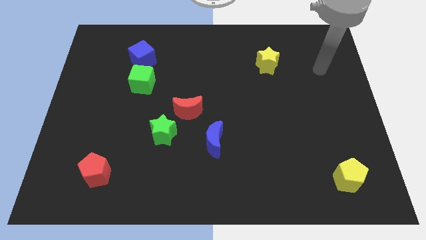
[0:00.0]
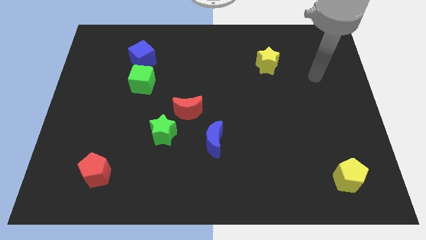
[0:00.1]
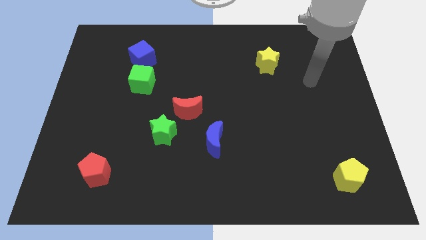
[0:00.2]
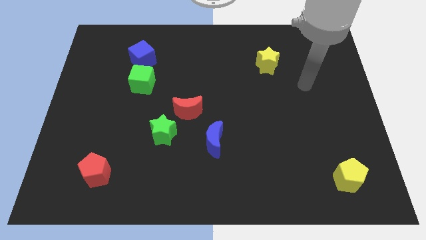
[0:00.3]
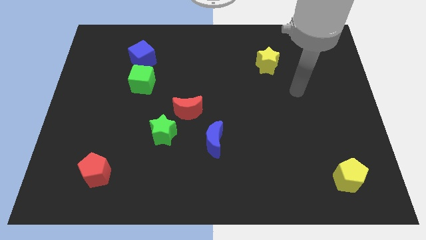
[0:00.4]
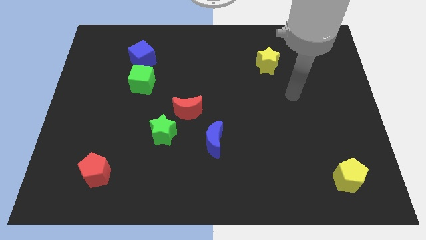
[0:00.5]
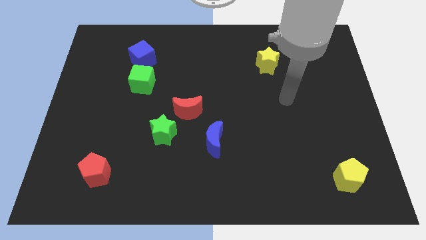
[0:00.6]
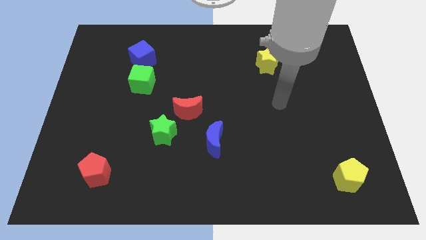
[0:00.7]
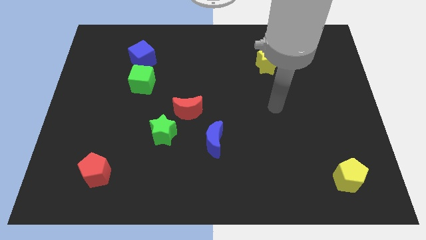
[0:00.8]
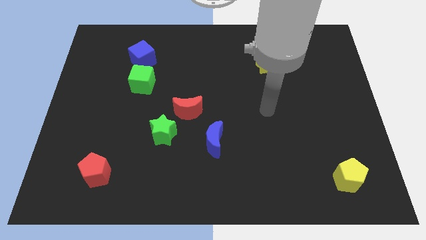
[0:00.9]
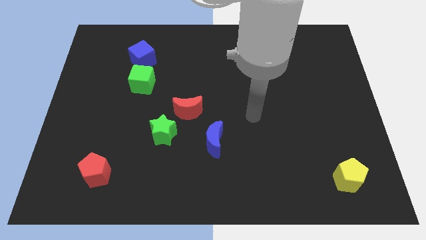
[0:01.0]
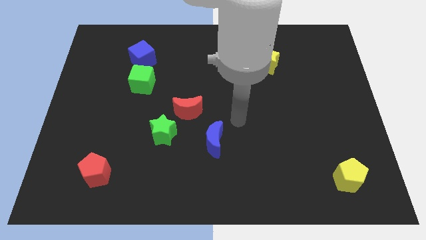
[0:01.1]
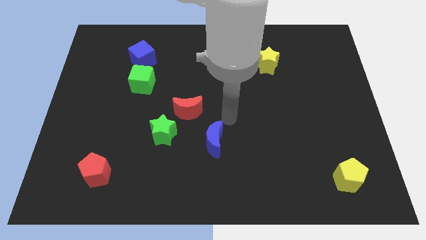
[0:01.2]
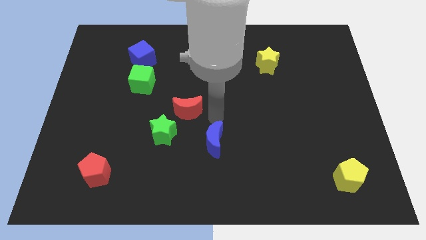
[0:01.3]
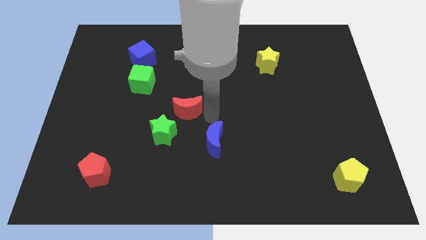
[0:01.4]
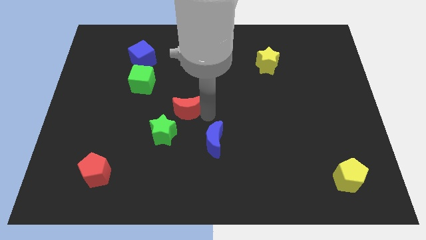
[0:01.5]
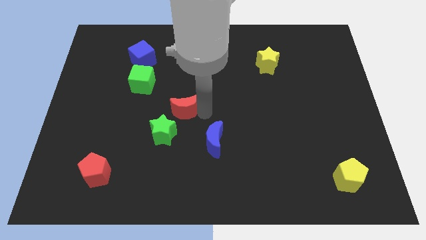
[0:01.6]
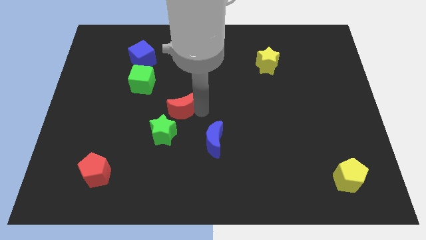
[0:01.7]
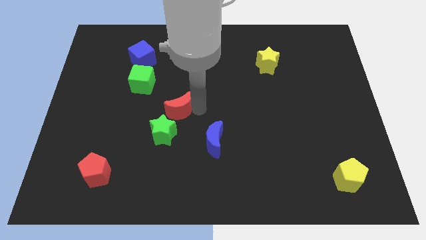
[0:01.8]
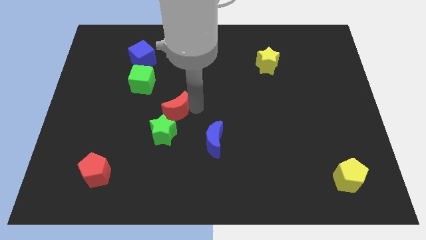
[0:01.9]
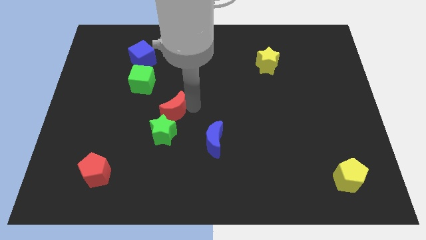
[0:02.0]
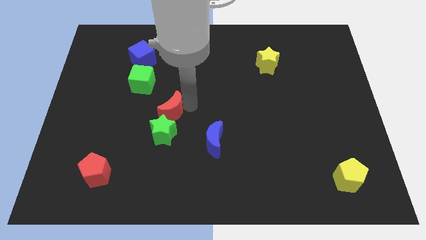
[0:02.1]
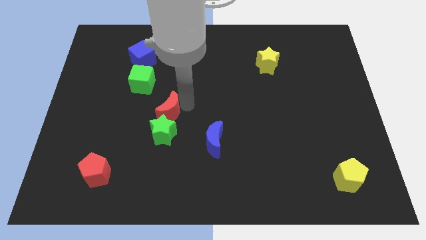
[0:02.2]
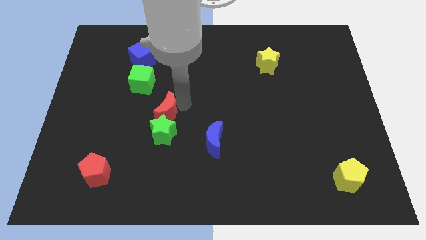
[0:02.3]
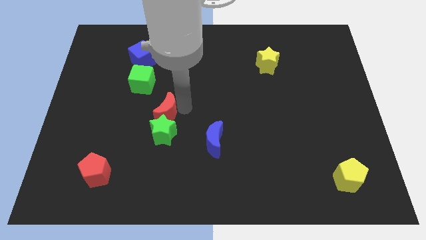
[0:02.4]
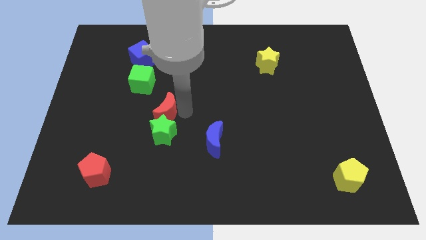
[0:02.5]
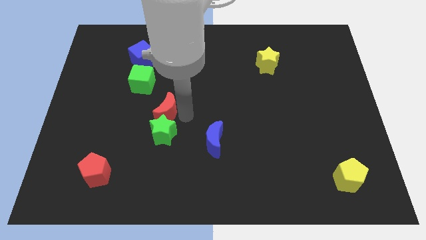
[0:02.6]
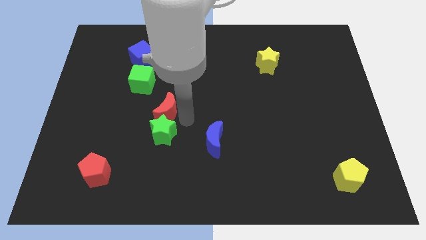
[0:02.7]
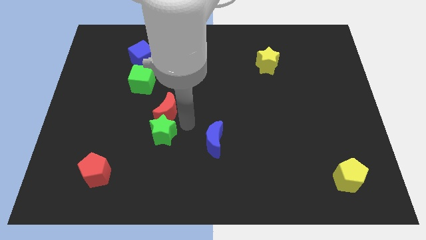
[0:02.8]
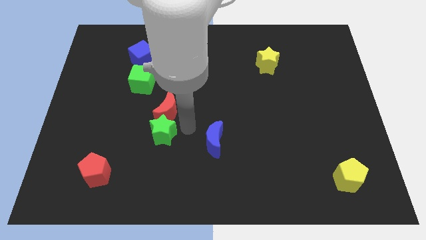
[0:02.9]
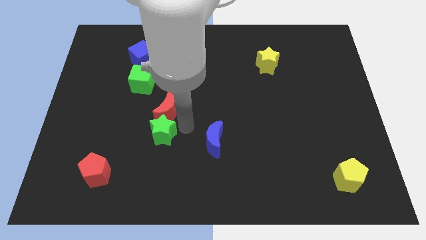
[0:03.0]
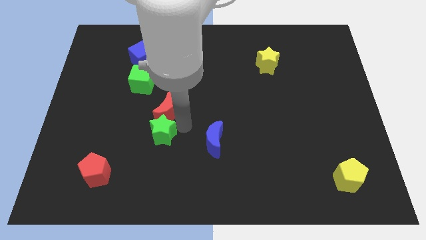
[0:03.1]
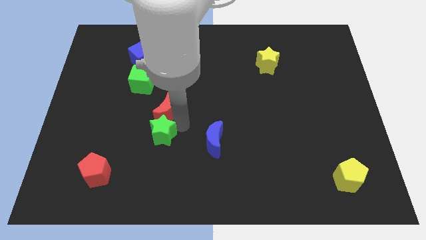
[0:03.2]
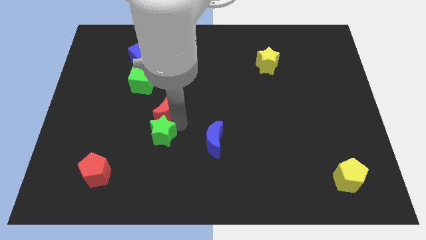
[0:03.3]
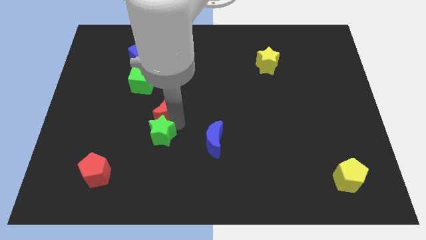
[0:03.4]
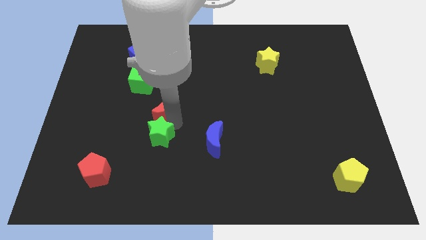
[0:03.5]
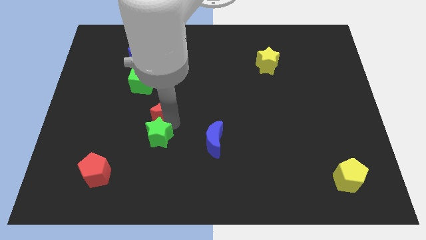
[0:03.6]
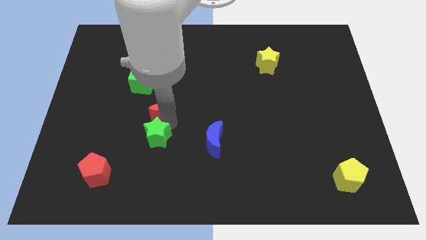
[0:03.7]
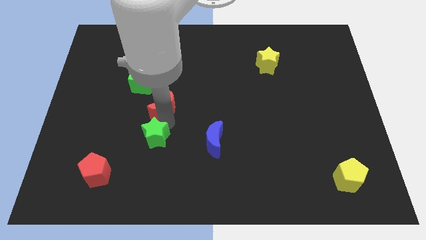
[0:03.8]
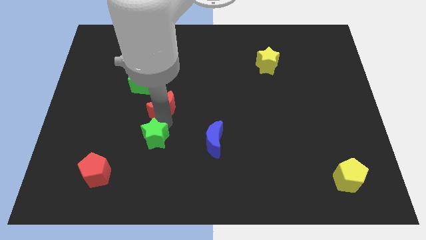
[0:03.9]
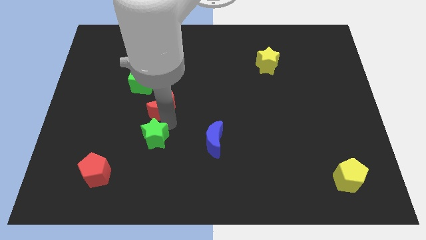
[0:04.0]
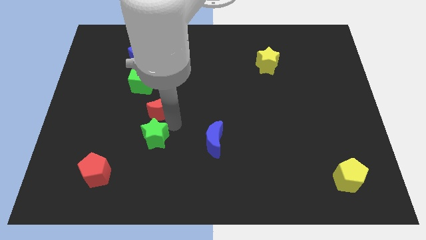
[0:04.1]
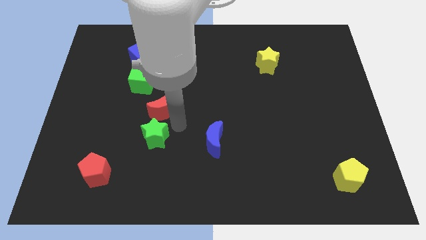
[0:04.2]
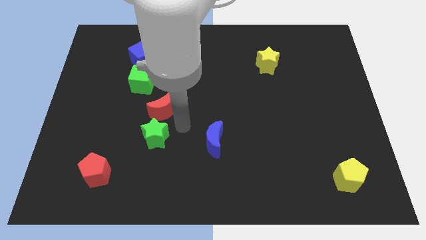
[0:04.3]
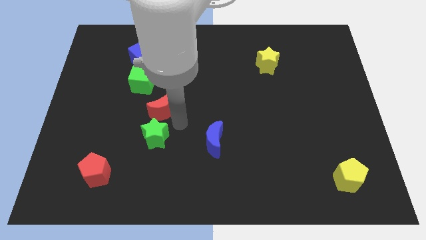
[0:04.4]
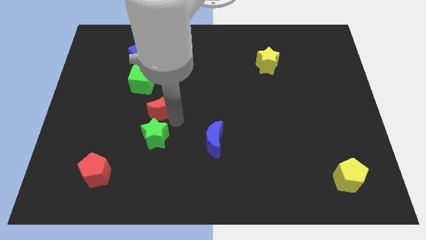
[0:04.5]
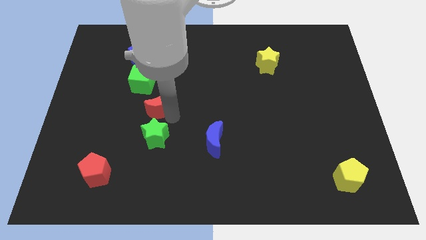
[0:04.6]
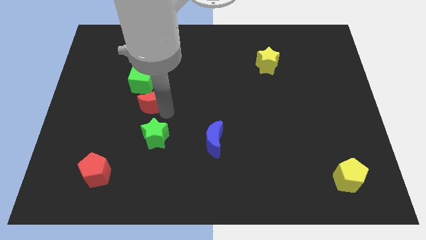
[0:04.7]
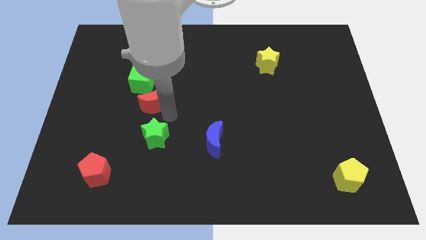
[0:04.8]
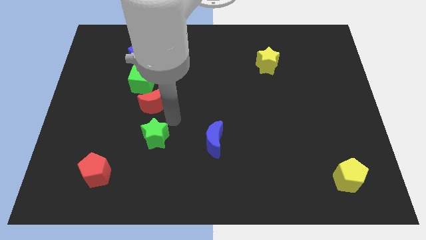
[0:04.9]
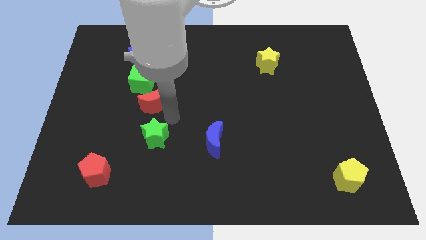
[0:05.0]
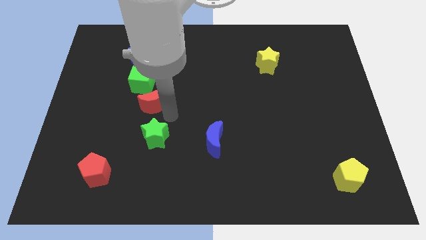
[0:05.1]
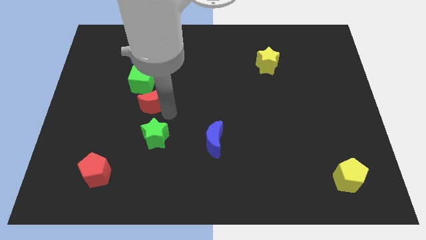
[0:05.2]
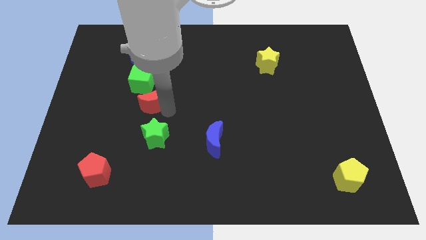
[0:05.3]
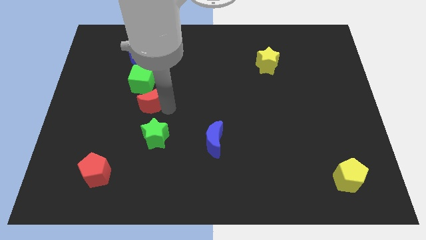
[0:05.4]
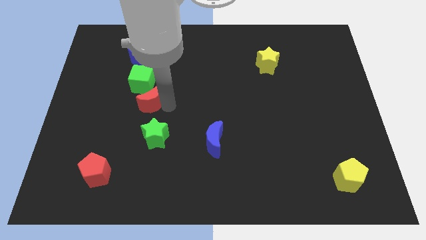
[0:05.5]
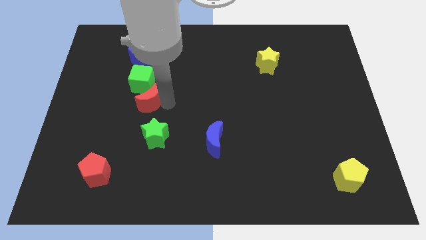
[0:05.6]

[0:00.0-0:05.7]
push the red moon to the bottom of the blue cube

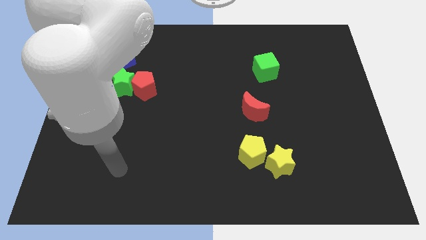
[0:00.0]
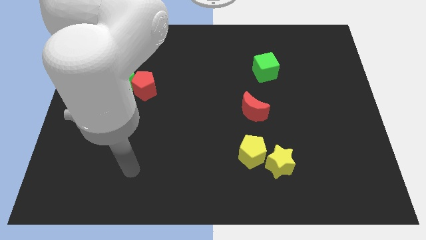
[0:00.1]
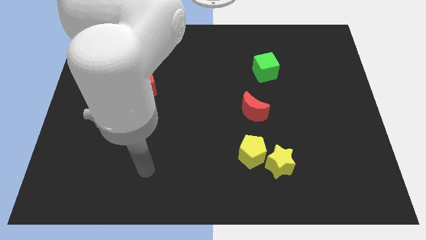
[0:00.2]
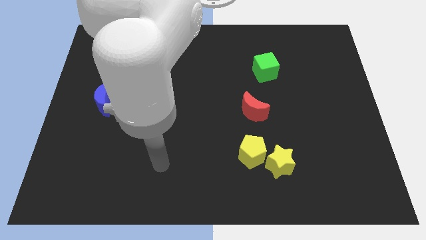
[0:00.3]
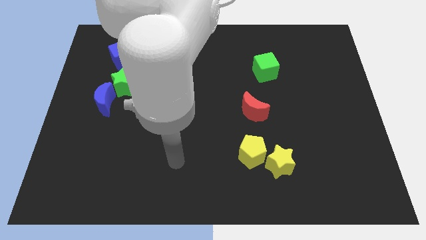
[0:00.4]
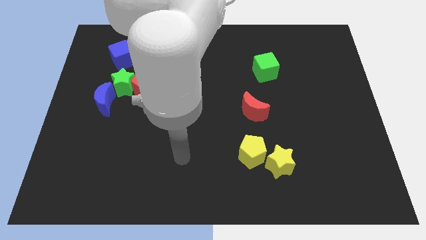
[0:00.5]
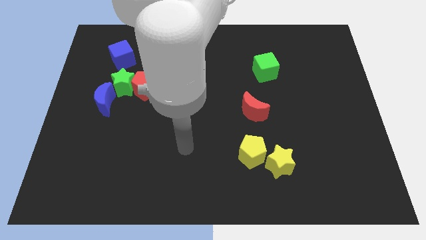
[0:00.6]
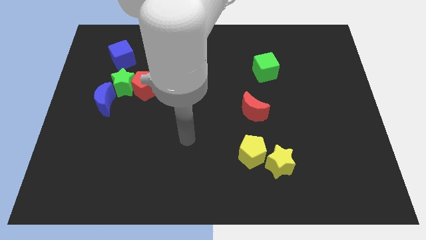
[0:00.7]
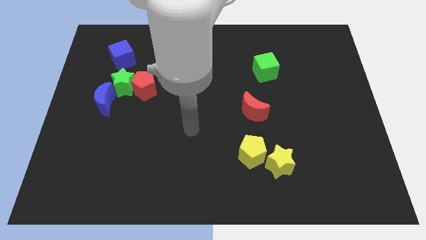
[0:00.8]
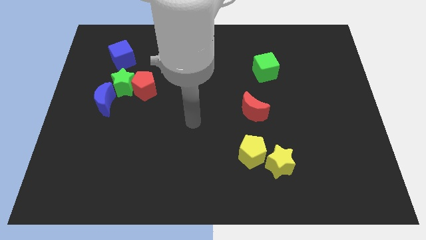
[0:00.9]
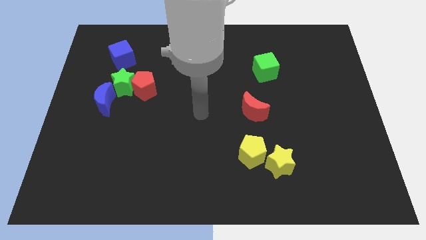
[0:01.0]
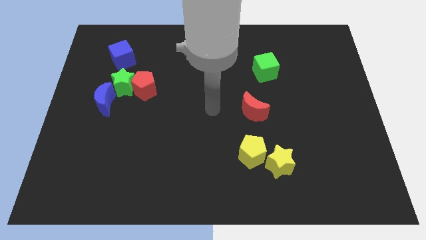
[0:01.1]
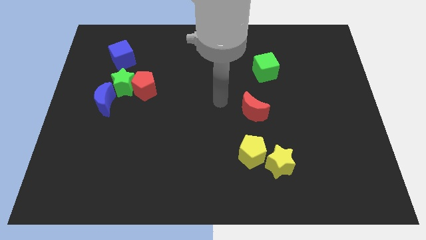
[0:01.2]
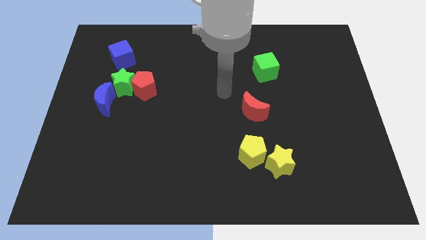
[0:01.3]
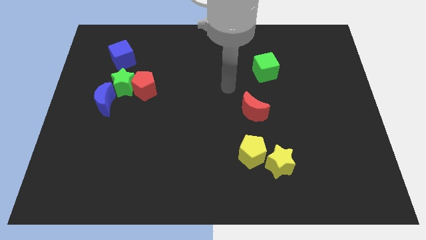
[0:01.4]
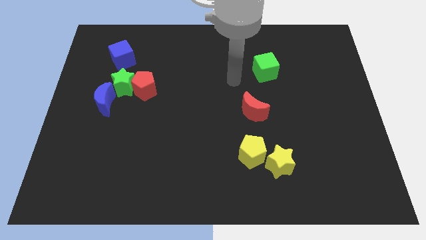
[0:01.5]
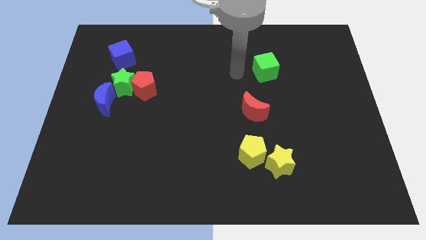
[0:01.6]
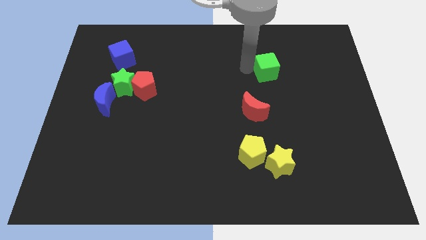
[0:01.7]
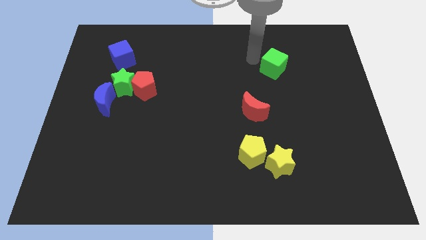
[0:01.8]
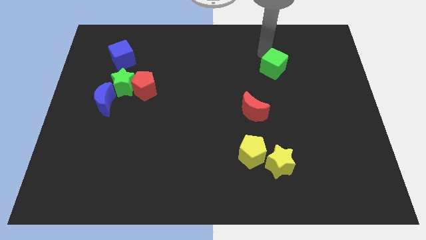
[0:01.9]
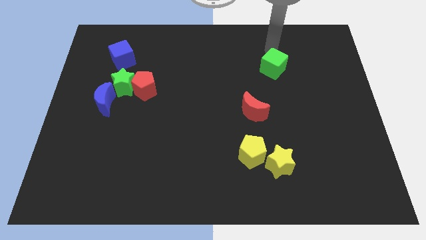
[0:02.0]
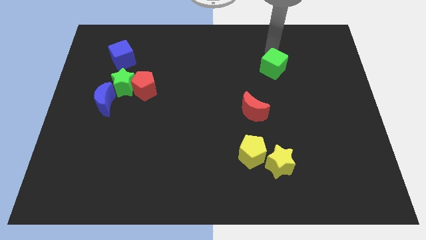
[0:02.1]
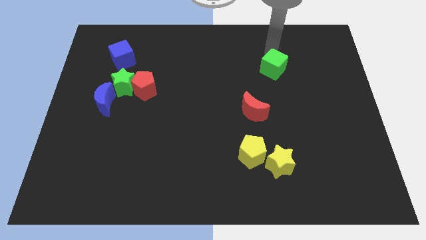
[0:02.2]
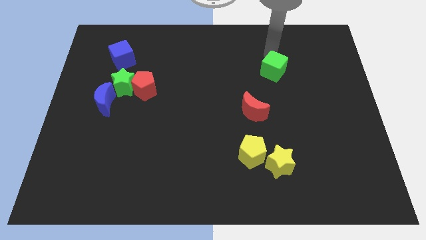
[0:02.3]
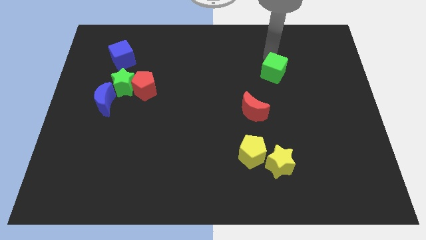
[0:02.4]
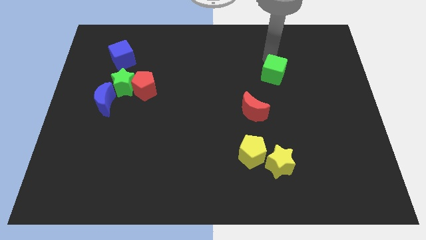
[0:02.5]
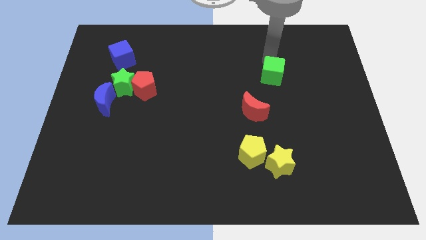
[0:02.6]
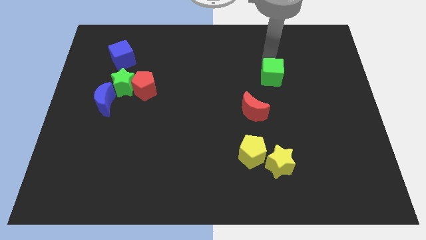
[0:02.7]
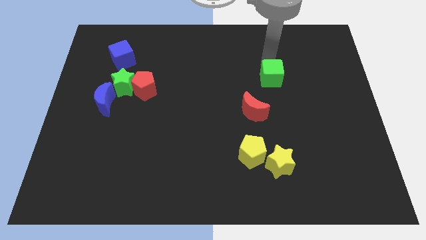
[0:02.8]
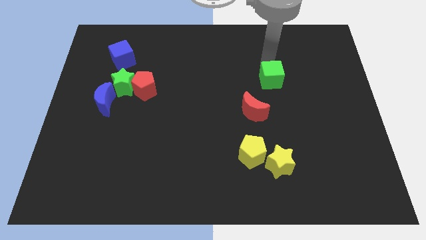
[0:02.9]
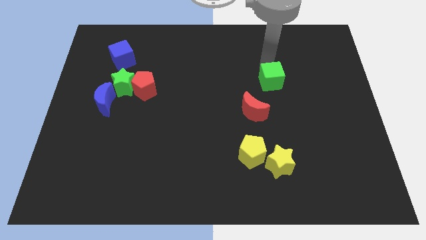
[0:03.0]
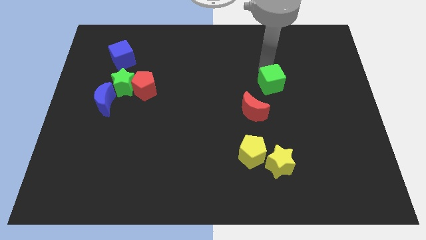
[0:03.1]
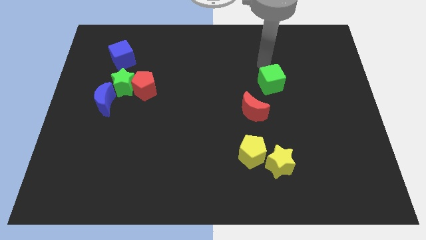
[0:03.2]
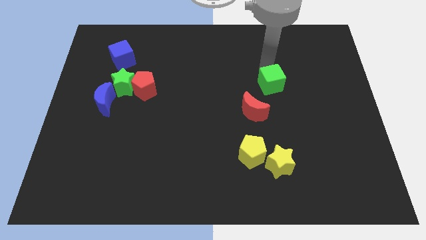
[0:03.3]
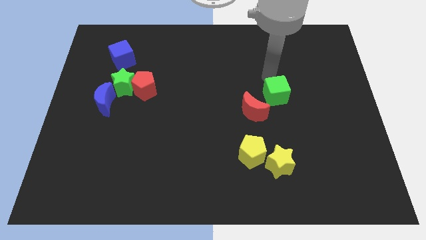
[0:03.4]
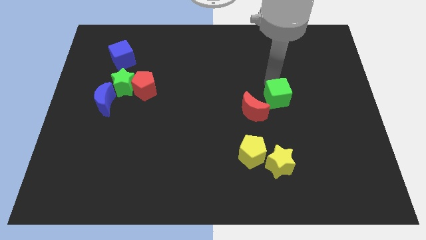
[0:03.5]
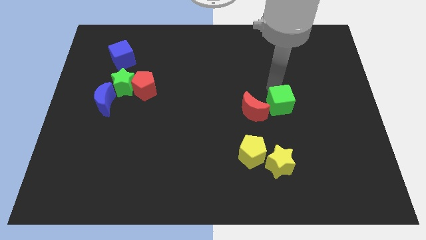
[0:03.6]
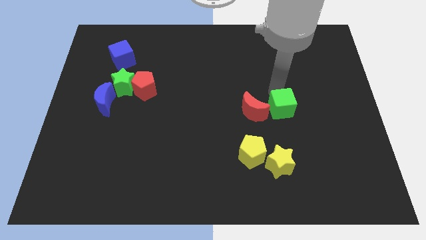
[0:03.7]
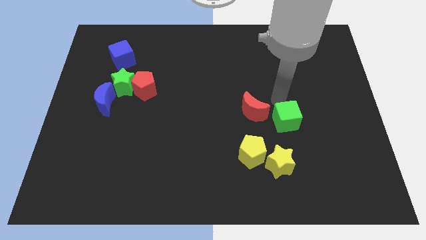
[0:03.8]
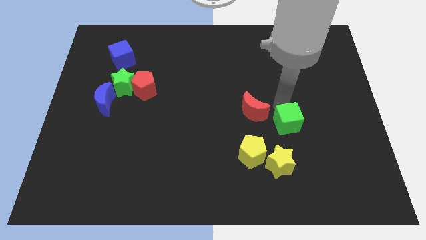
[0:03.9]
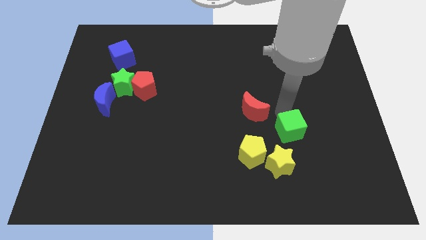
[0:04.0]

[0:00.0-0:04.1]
move the green cube to the top right of the yellow star
